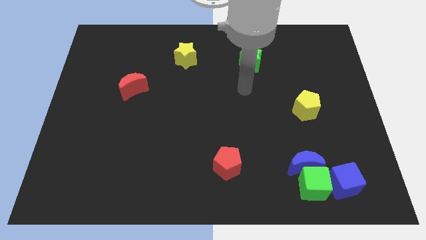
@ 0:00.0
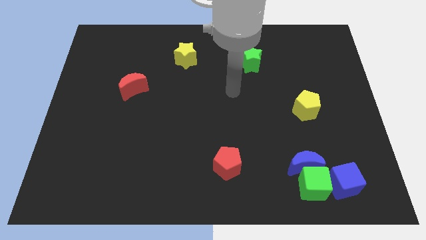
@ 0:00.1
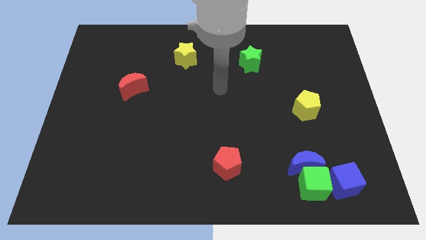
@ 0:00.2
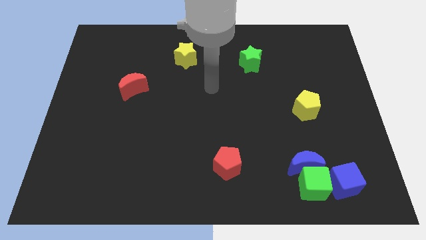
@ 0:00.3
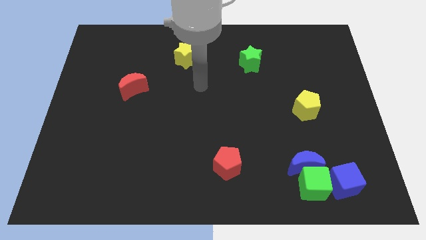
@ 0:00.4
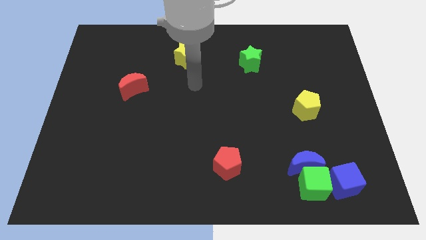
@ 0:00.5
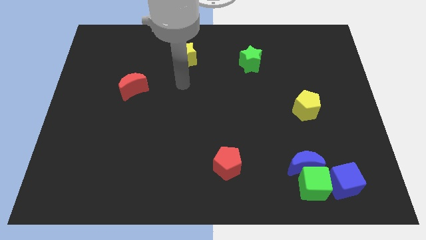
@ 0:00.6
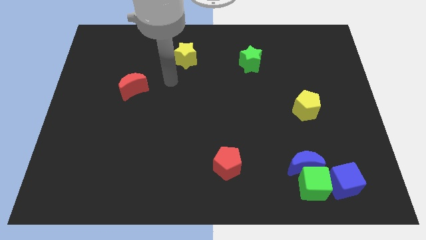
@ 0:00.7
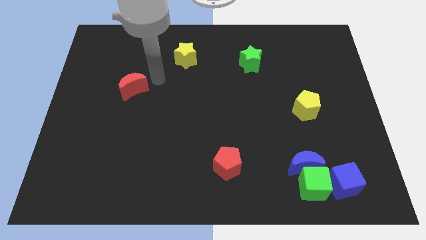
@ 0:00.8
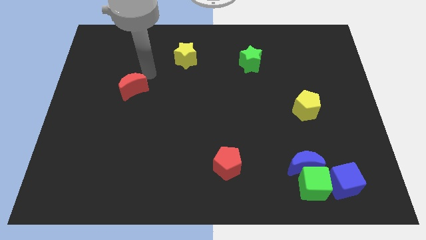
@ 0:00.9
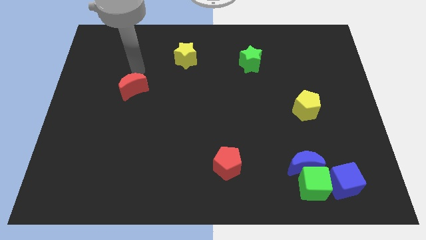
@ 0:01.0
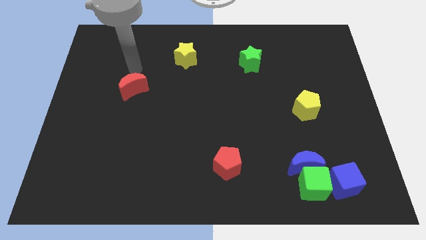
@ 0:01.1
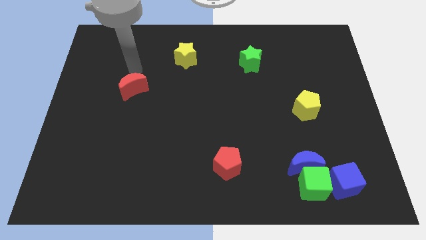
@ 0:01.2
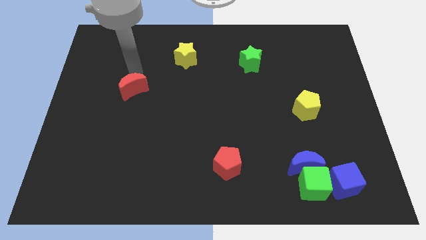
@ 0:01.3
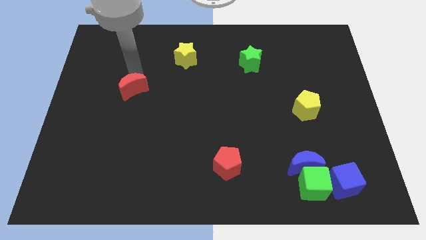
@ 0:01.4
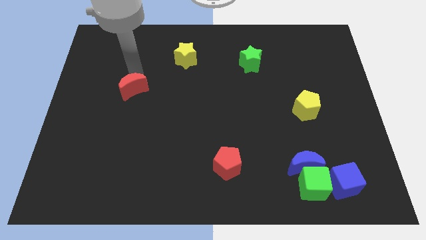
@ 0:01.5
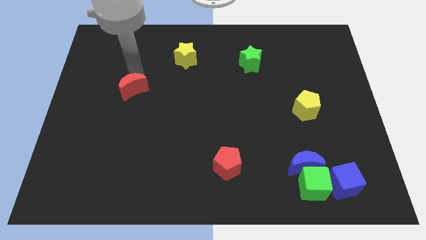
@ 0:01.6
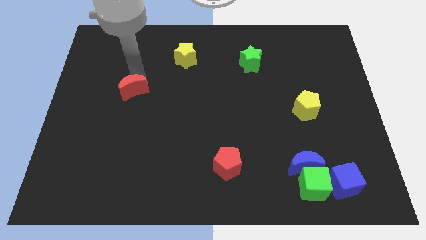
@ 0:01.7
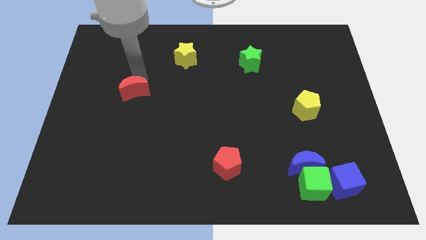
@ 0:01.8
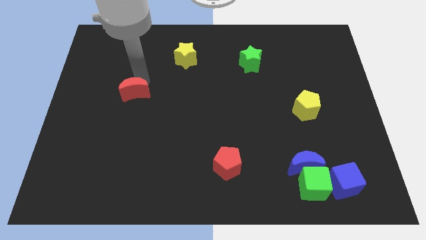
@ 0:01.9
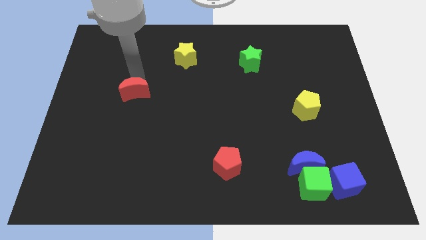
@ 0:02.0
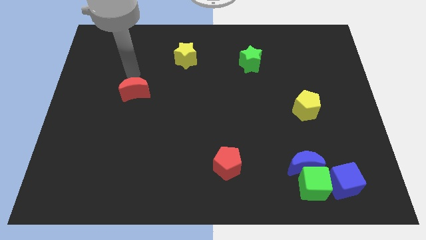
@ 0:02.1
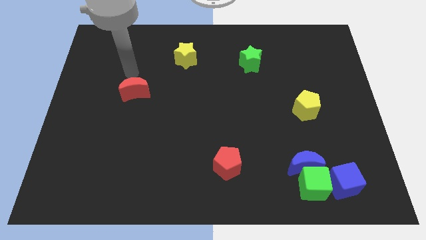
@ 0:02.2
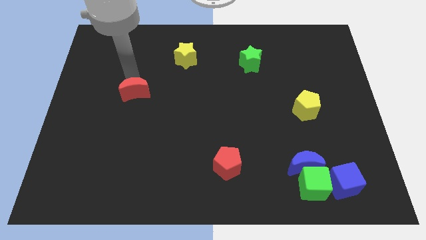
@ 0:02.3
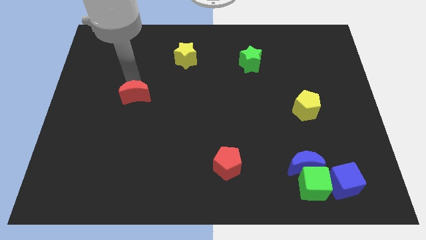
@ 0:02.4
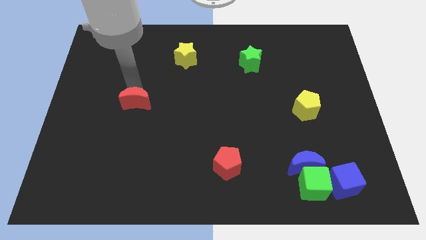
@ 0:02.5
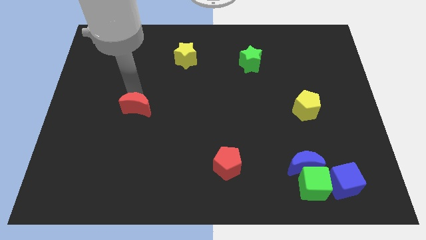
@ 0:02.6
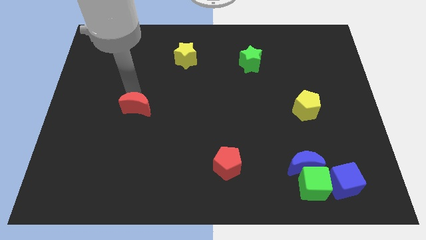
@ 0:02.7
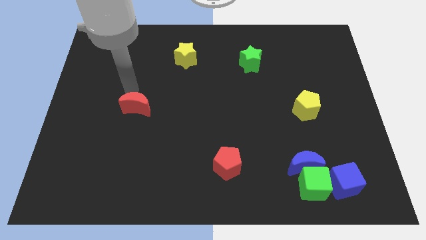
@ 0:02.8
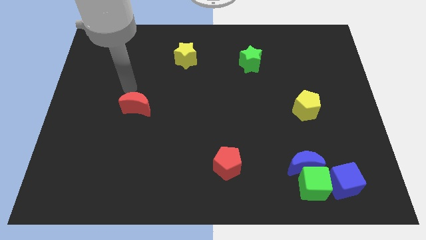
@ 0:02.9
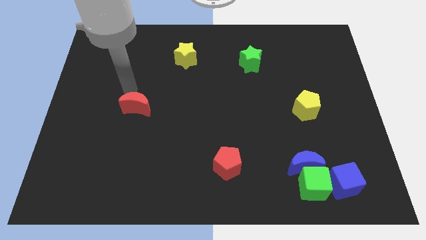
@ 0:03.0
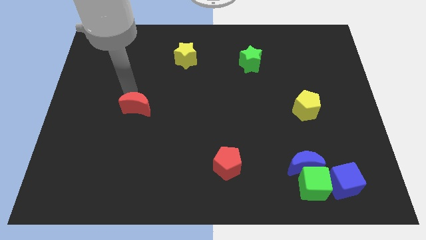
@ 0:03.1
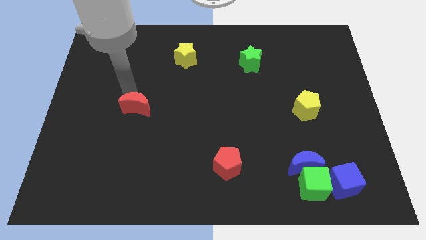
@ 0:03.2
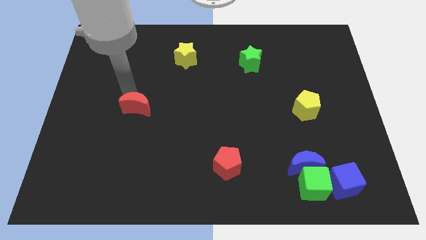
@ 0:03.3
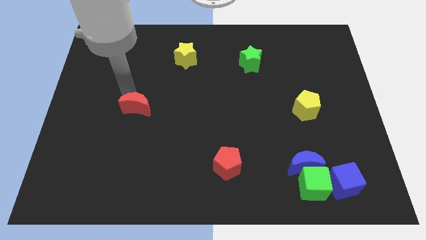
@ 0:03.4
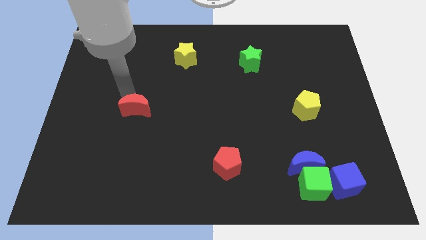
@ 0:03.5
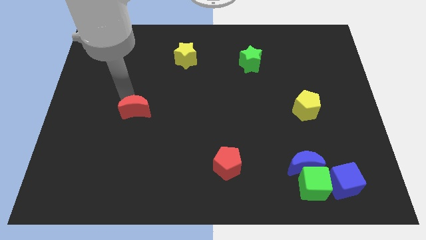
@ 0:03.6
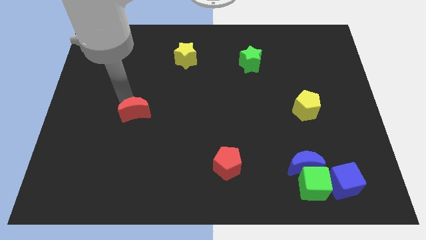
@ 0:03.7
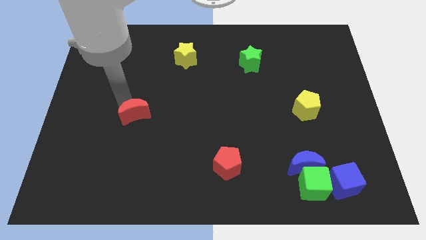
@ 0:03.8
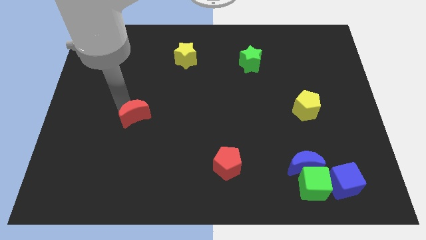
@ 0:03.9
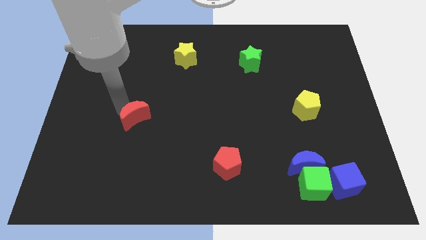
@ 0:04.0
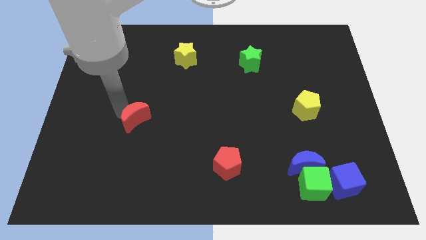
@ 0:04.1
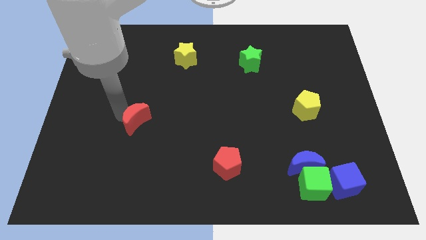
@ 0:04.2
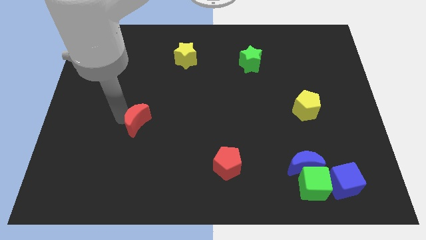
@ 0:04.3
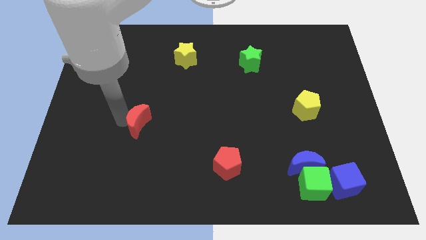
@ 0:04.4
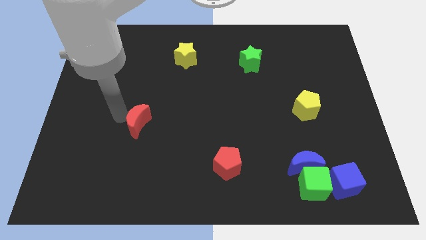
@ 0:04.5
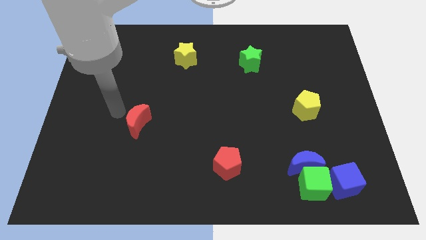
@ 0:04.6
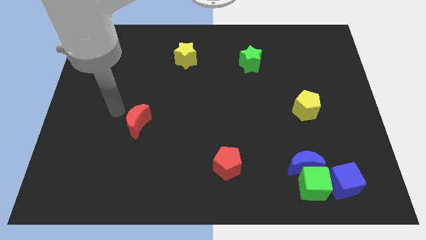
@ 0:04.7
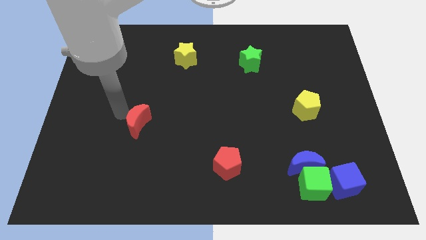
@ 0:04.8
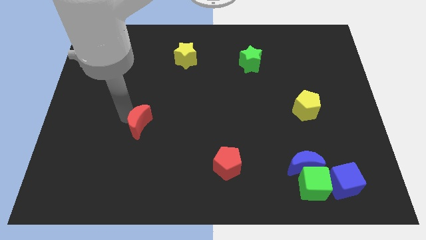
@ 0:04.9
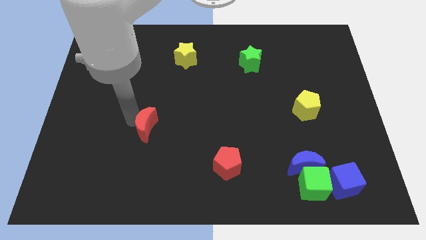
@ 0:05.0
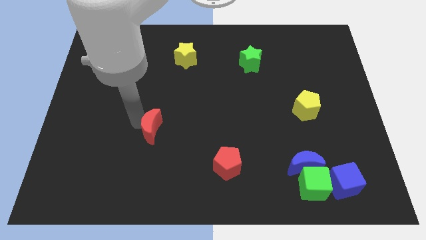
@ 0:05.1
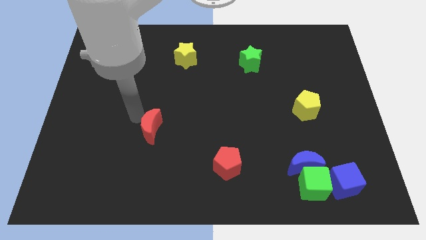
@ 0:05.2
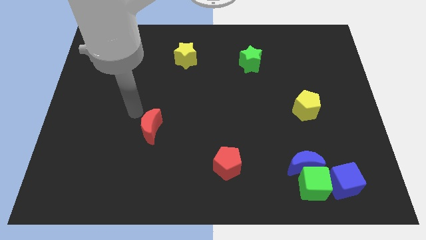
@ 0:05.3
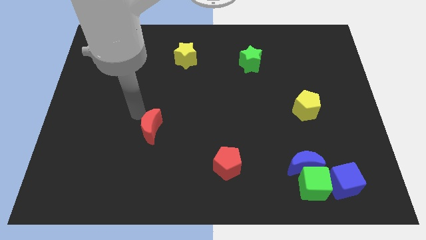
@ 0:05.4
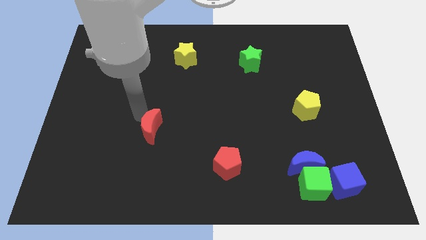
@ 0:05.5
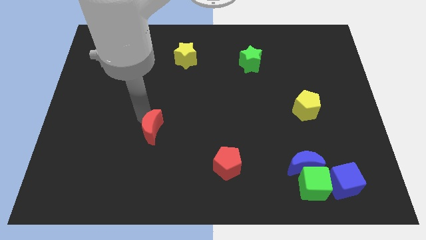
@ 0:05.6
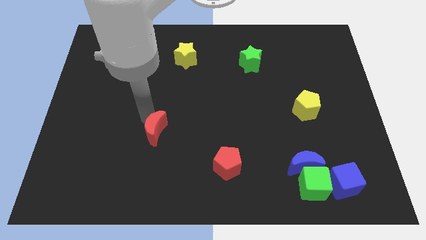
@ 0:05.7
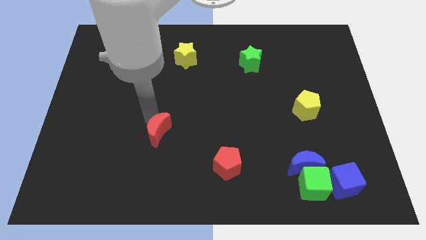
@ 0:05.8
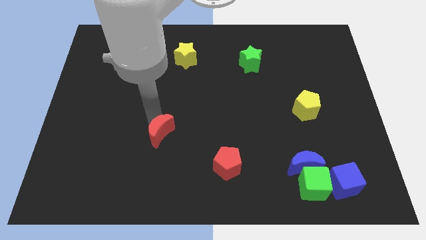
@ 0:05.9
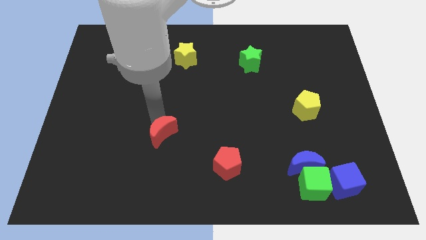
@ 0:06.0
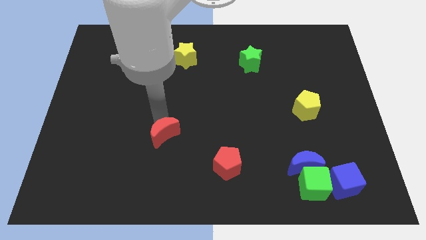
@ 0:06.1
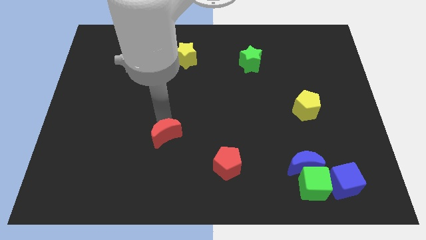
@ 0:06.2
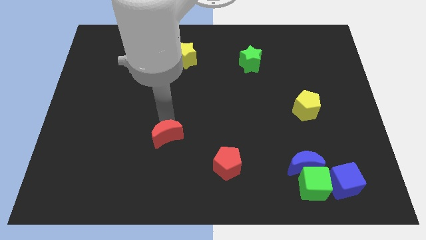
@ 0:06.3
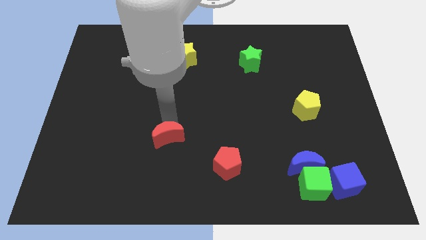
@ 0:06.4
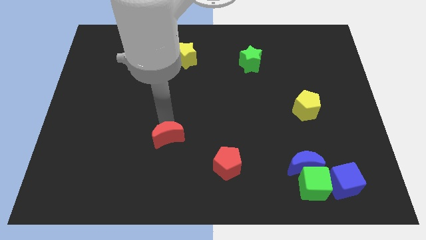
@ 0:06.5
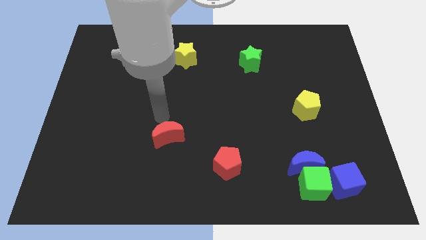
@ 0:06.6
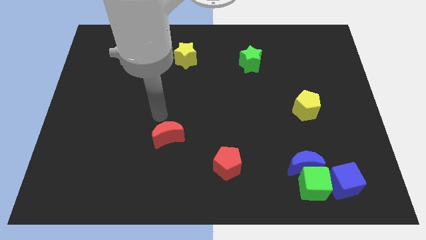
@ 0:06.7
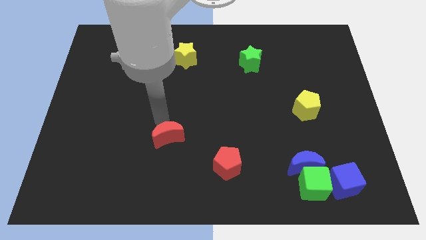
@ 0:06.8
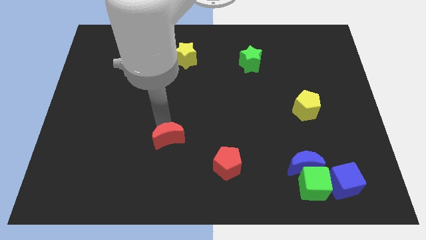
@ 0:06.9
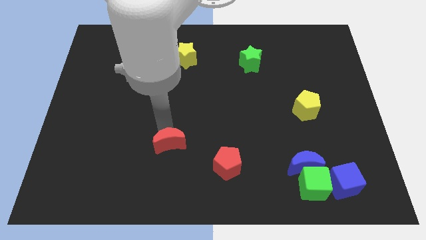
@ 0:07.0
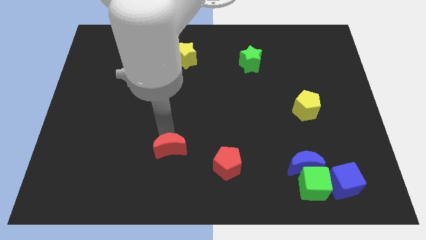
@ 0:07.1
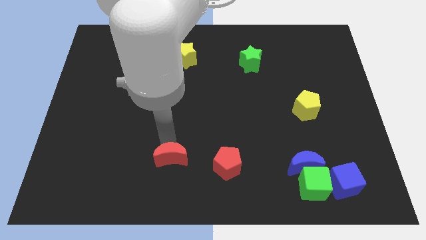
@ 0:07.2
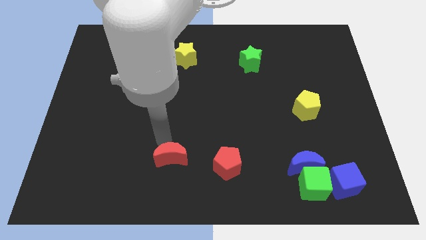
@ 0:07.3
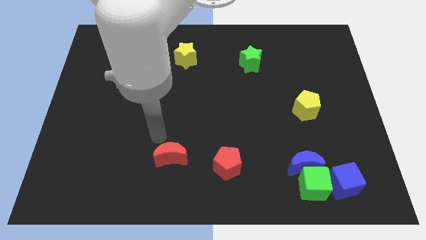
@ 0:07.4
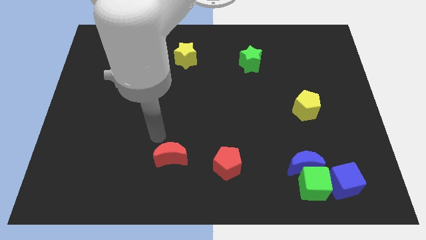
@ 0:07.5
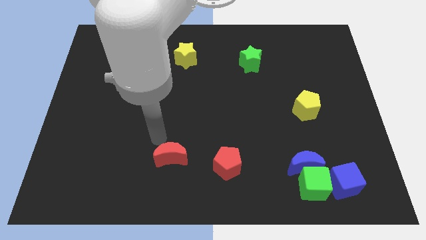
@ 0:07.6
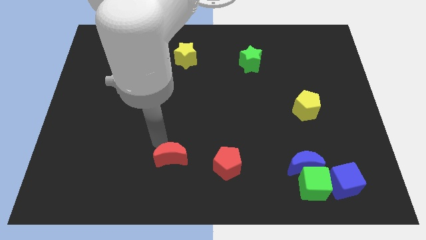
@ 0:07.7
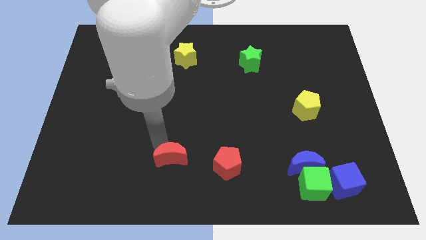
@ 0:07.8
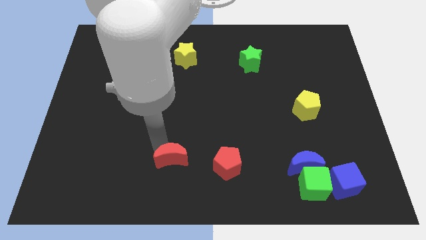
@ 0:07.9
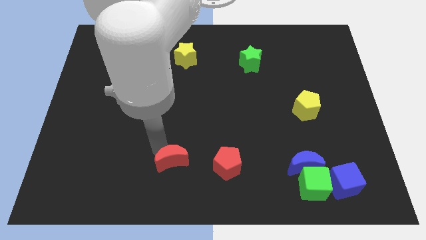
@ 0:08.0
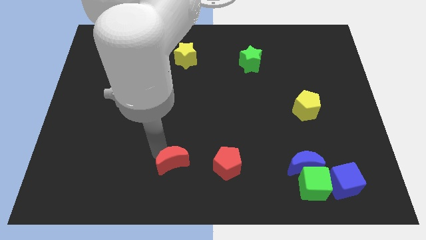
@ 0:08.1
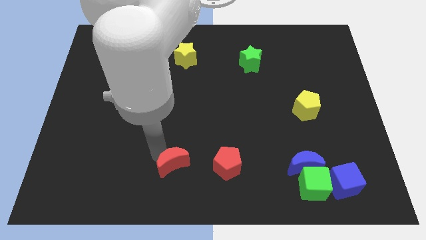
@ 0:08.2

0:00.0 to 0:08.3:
push the red moon to the bottom side
